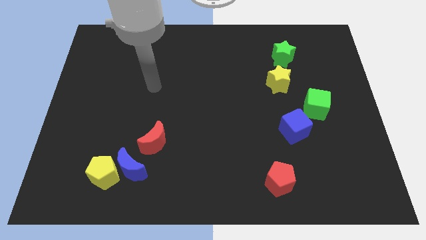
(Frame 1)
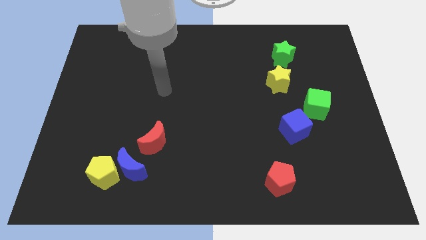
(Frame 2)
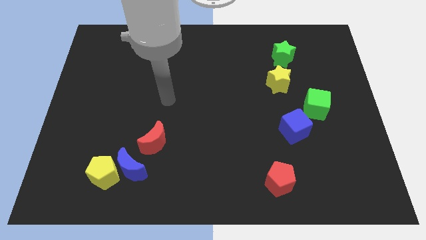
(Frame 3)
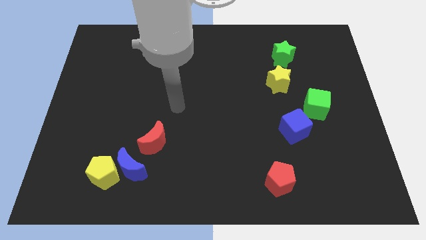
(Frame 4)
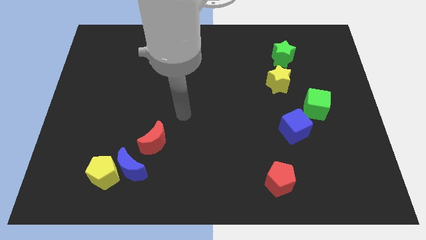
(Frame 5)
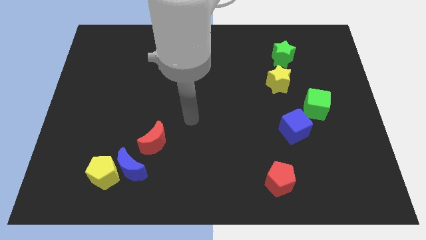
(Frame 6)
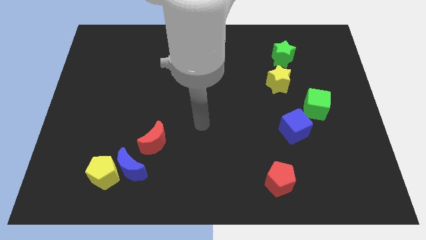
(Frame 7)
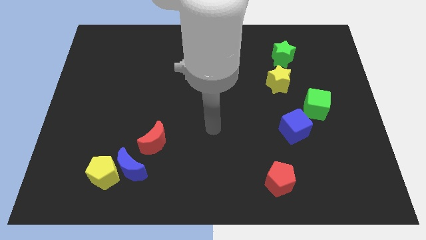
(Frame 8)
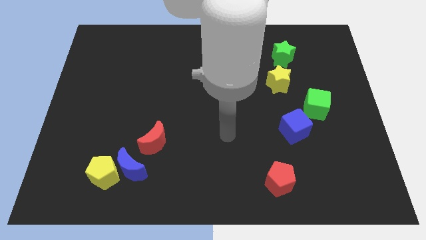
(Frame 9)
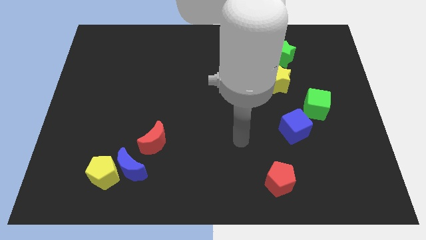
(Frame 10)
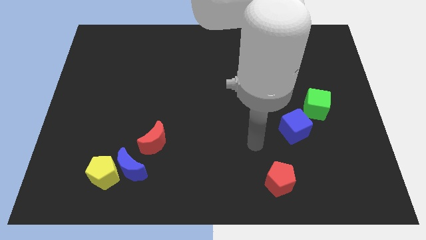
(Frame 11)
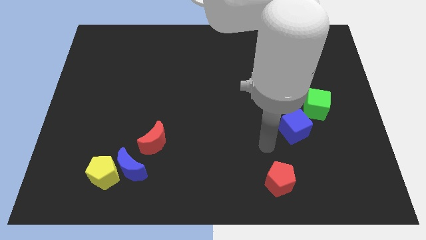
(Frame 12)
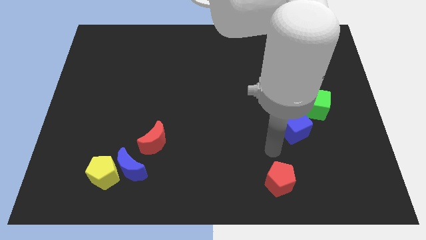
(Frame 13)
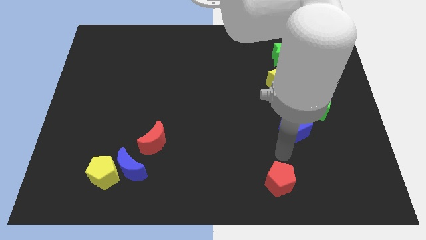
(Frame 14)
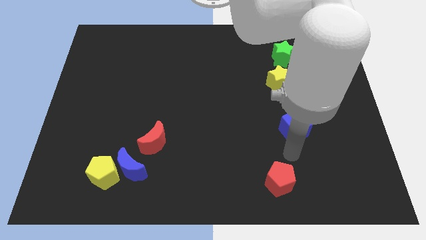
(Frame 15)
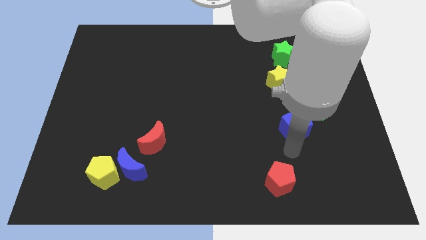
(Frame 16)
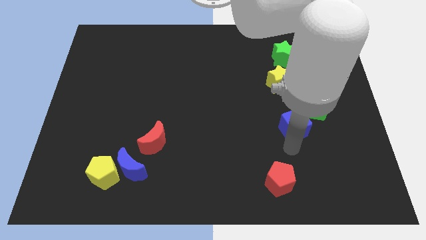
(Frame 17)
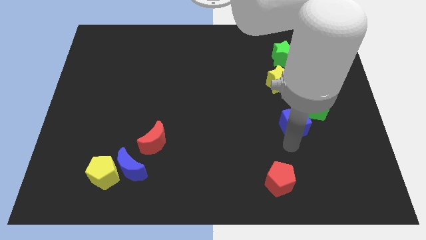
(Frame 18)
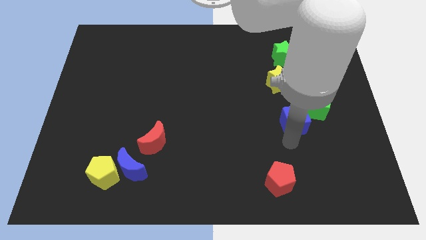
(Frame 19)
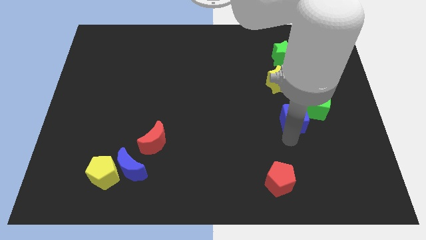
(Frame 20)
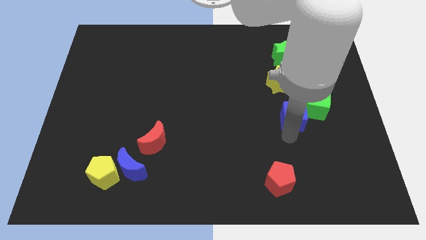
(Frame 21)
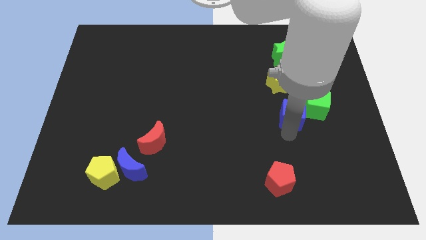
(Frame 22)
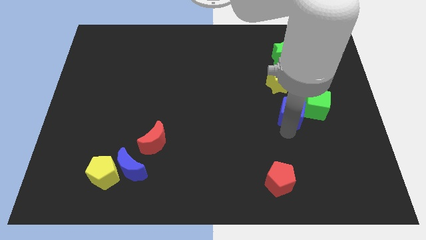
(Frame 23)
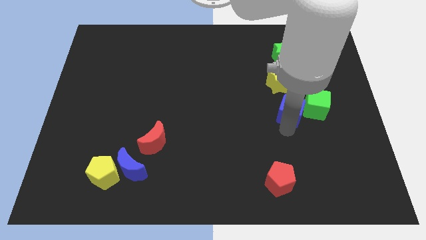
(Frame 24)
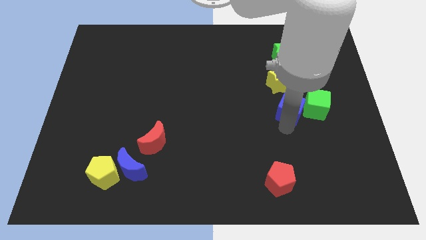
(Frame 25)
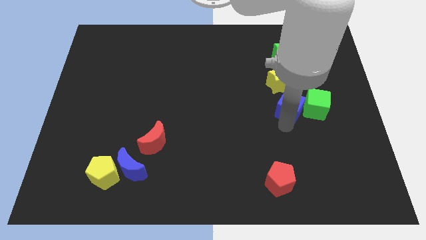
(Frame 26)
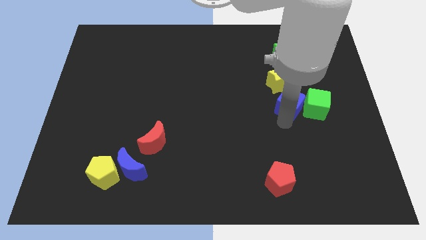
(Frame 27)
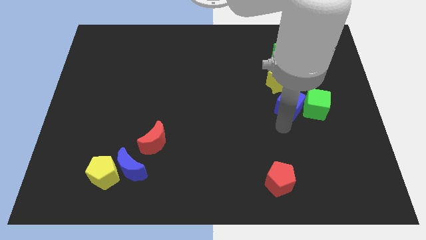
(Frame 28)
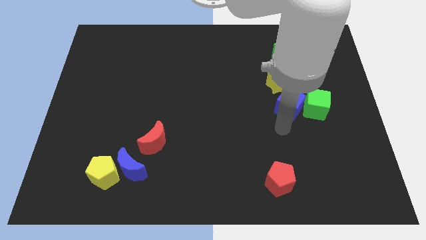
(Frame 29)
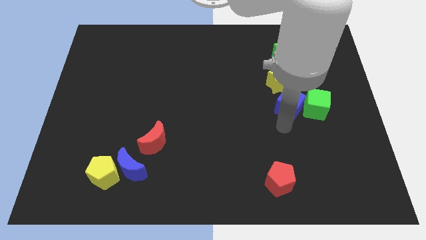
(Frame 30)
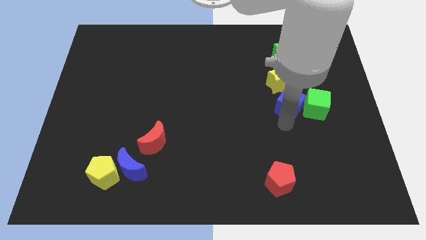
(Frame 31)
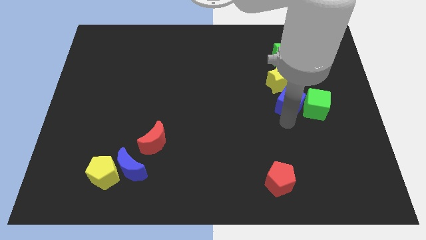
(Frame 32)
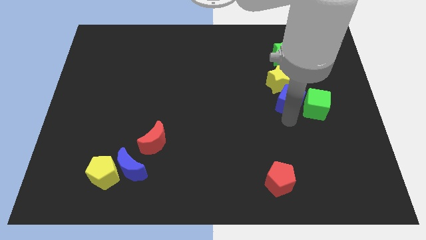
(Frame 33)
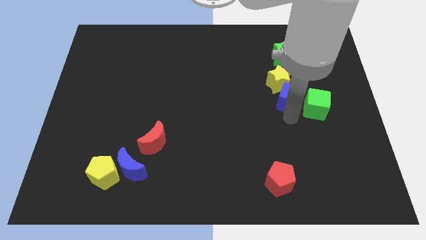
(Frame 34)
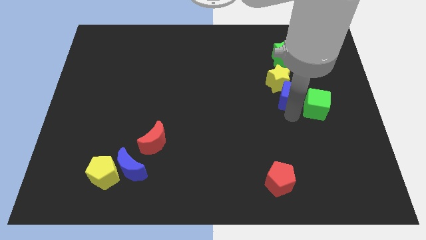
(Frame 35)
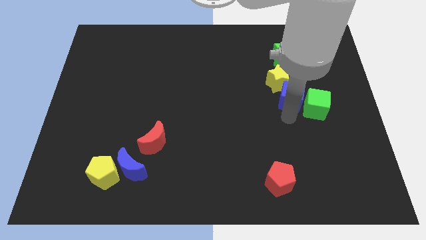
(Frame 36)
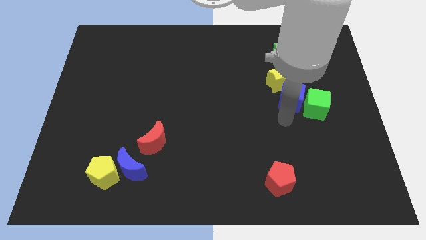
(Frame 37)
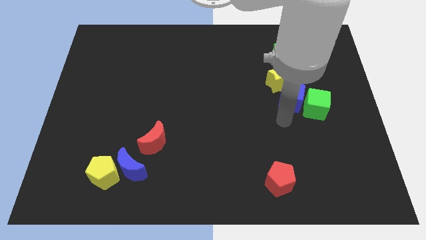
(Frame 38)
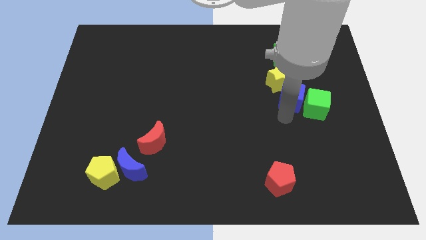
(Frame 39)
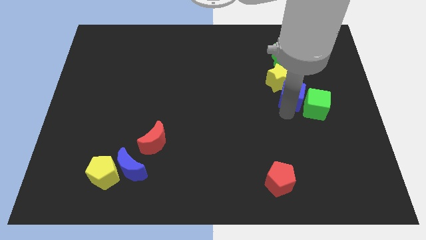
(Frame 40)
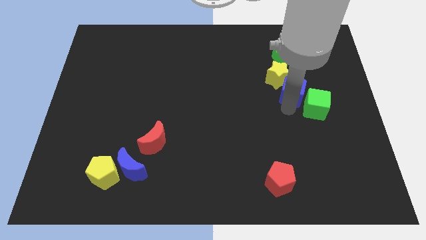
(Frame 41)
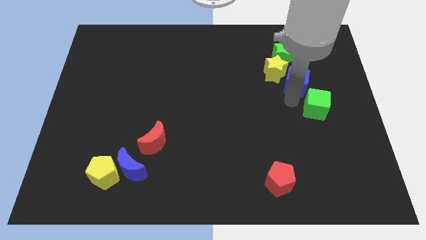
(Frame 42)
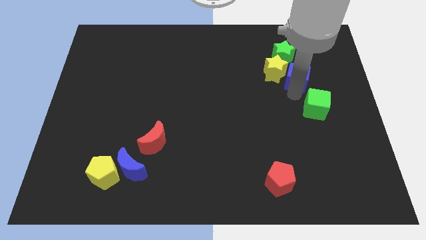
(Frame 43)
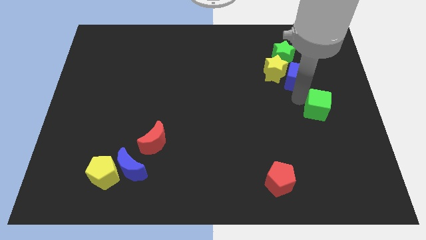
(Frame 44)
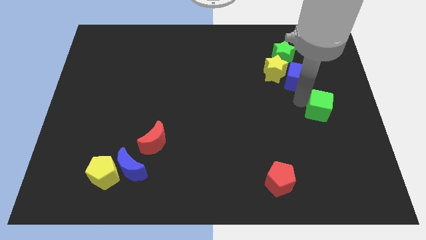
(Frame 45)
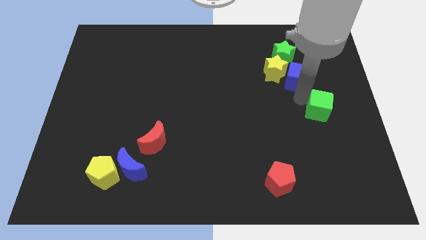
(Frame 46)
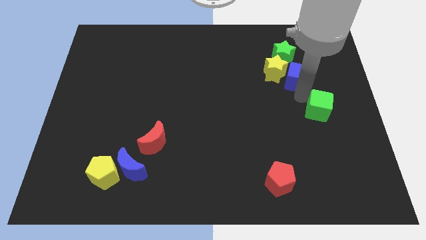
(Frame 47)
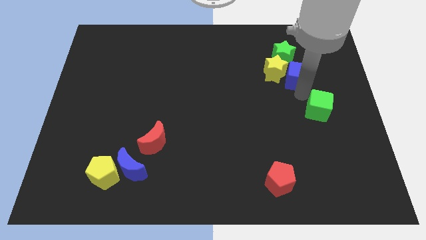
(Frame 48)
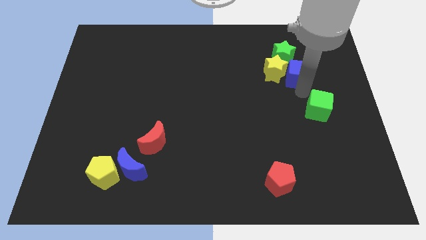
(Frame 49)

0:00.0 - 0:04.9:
push the blue cube diagonally up and to the right of the yellow star

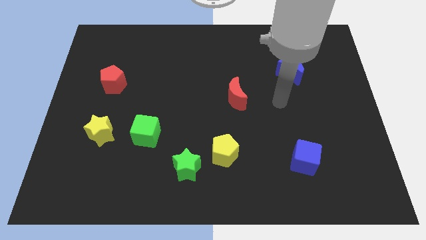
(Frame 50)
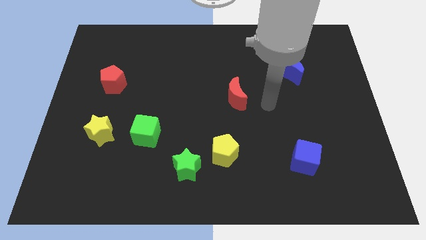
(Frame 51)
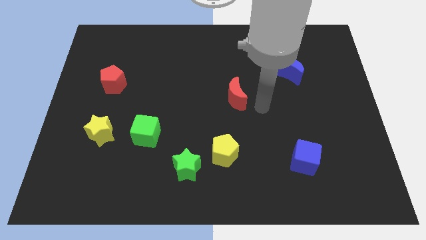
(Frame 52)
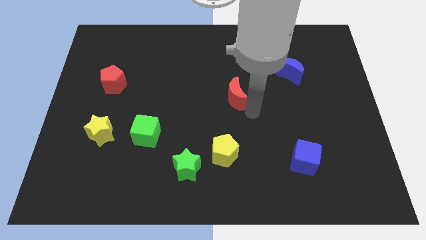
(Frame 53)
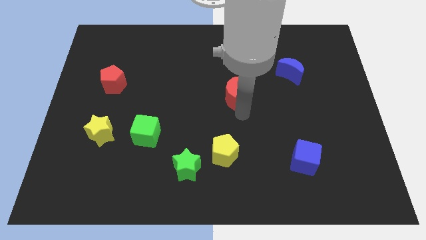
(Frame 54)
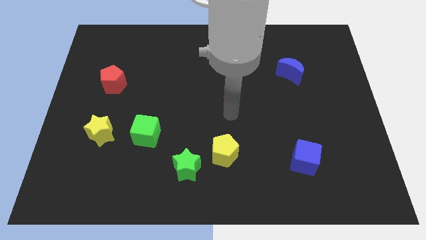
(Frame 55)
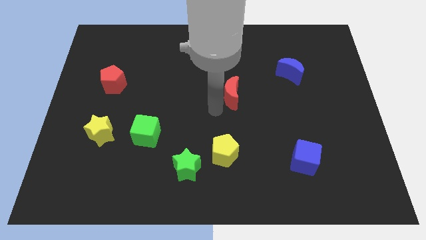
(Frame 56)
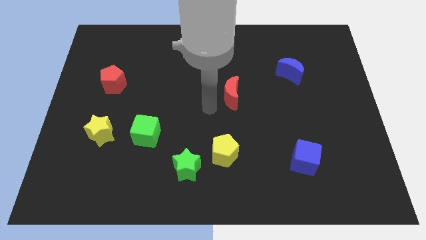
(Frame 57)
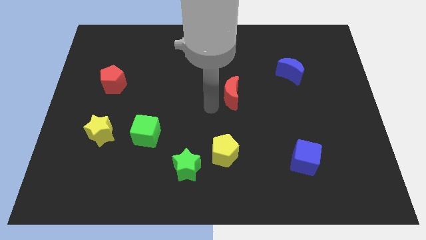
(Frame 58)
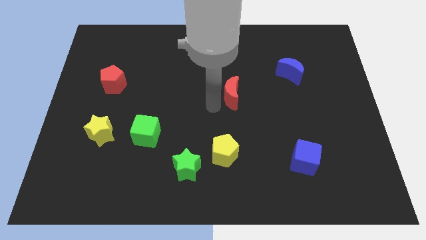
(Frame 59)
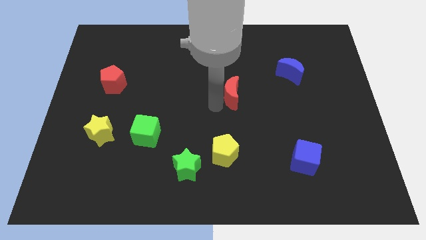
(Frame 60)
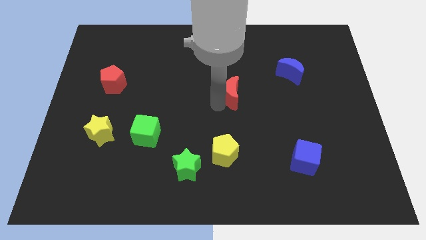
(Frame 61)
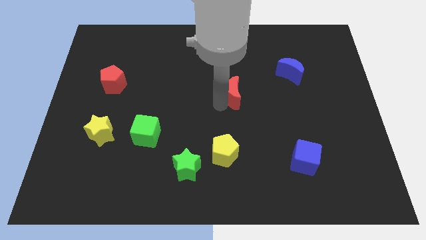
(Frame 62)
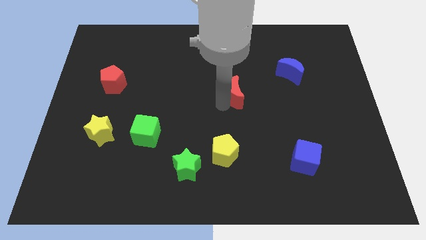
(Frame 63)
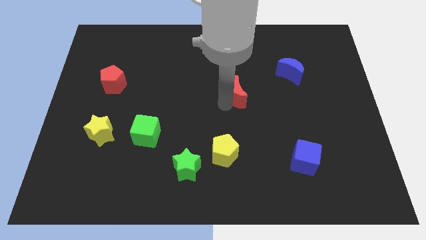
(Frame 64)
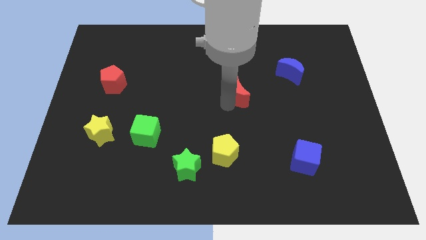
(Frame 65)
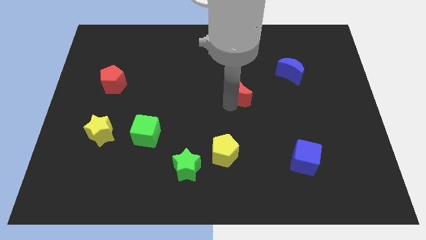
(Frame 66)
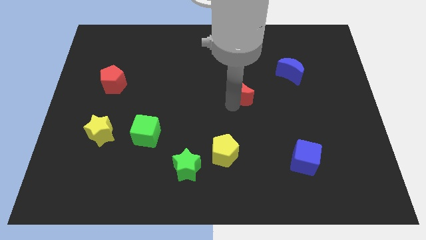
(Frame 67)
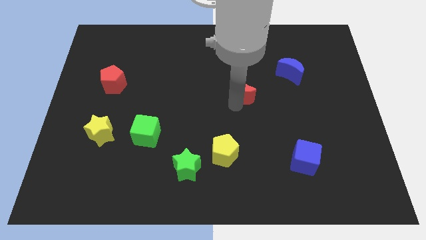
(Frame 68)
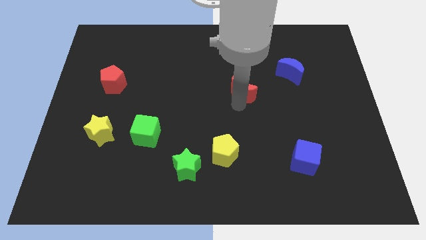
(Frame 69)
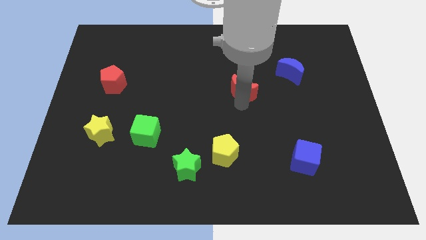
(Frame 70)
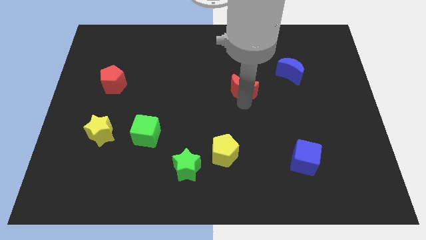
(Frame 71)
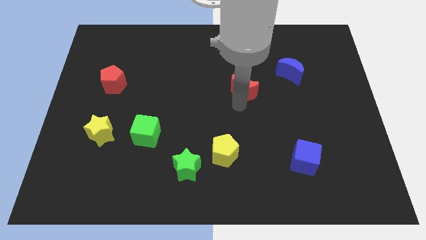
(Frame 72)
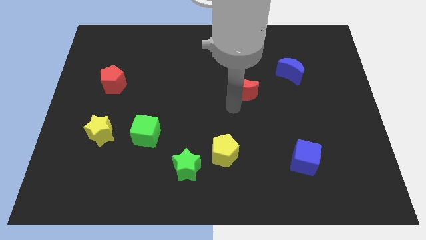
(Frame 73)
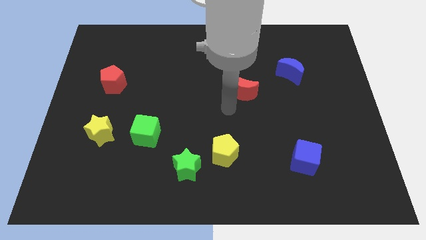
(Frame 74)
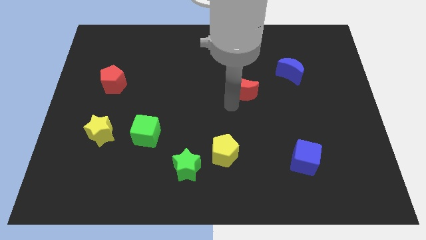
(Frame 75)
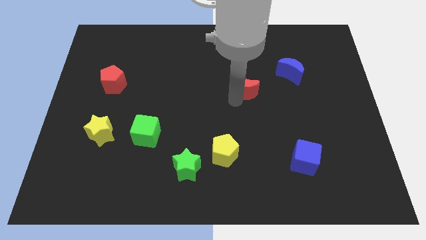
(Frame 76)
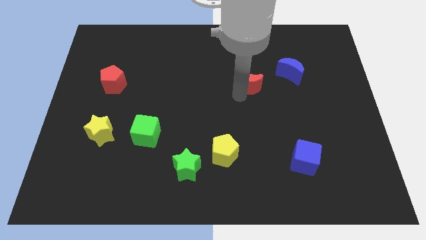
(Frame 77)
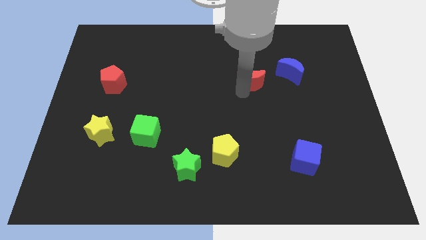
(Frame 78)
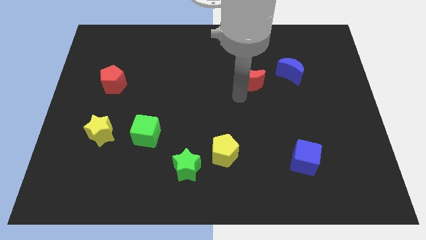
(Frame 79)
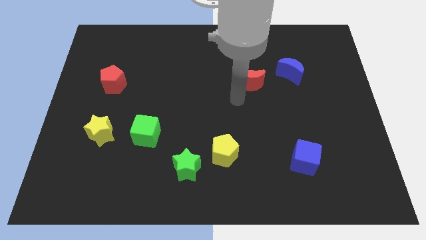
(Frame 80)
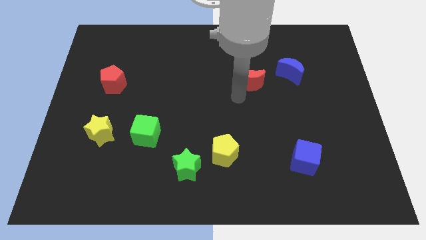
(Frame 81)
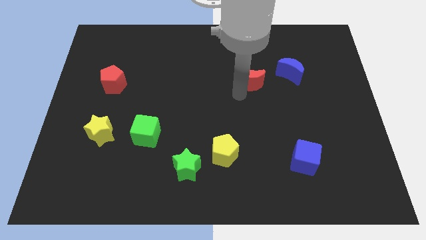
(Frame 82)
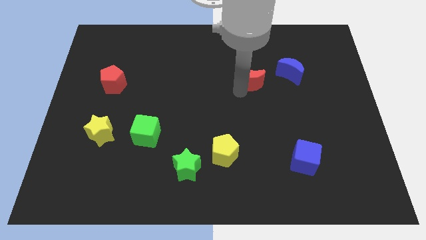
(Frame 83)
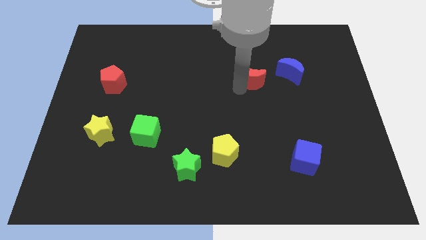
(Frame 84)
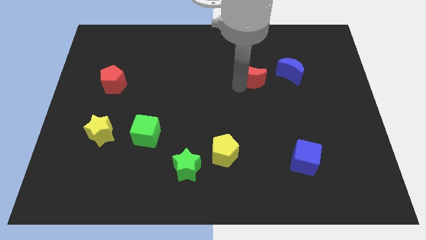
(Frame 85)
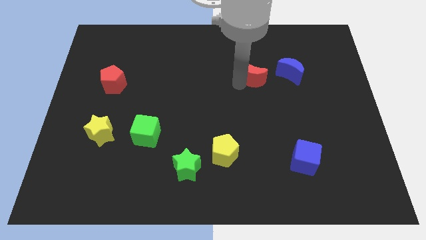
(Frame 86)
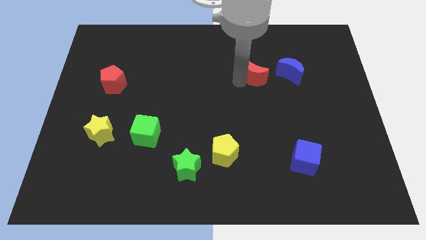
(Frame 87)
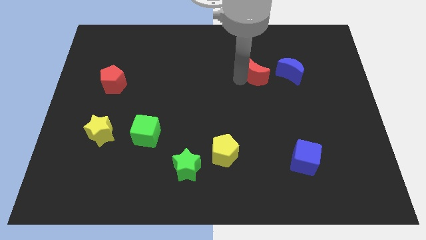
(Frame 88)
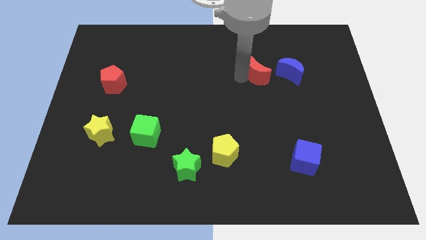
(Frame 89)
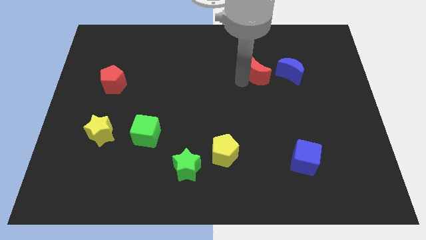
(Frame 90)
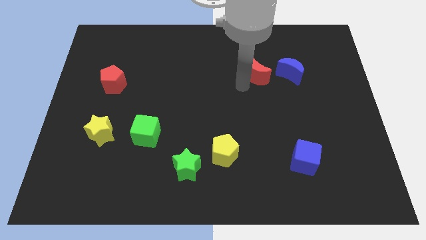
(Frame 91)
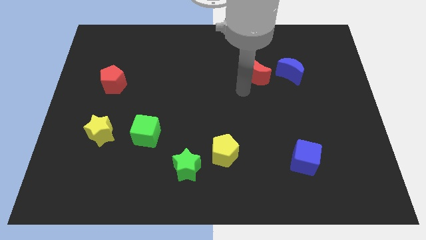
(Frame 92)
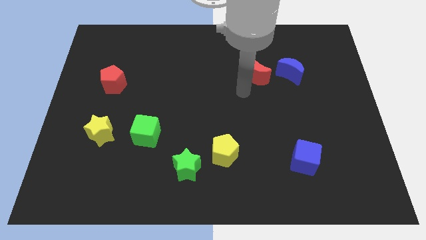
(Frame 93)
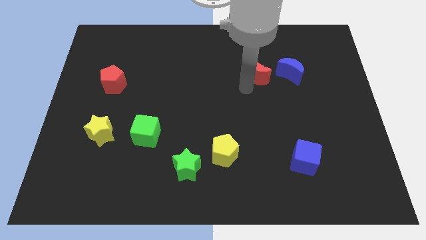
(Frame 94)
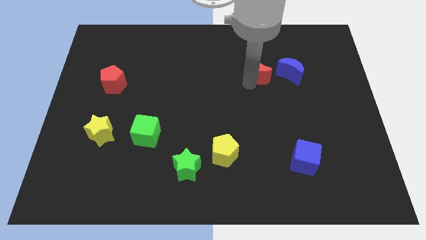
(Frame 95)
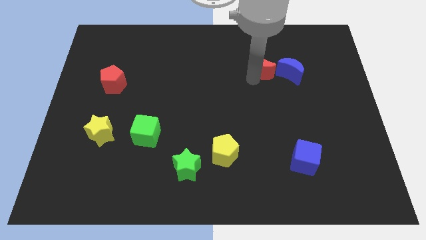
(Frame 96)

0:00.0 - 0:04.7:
move the red moon to the top left of the blue moon
